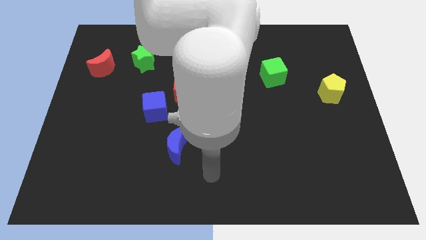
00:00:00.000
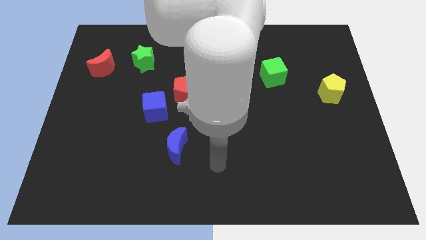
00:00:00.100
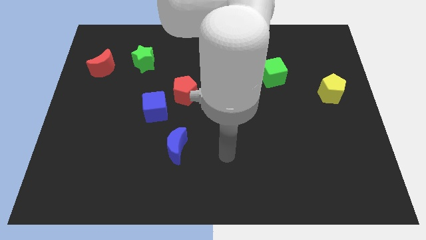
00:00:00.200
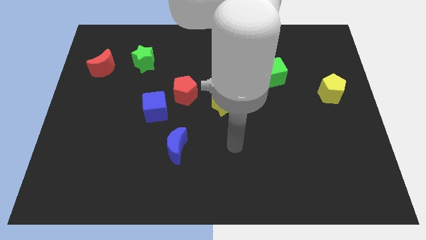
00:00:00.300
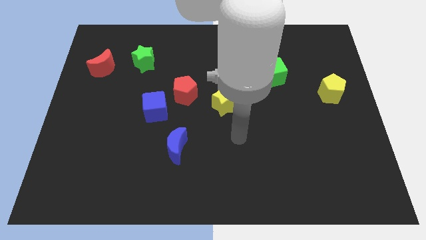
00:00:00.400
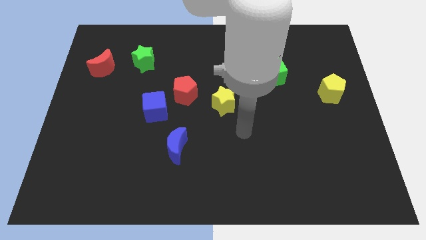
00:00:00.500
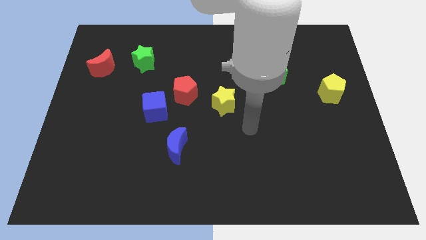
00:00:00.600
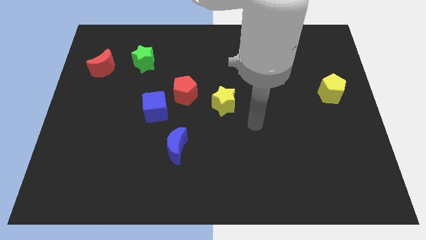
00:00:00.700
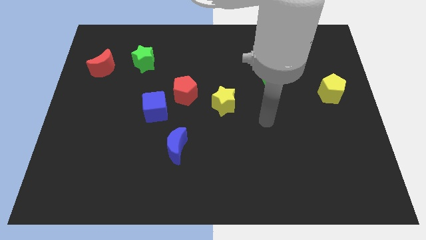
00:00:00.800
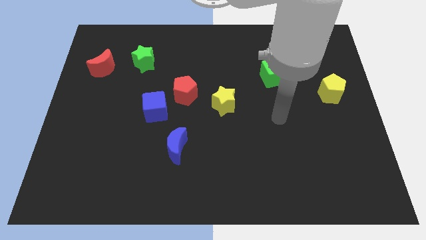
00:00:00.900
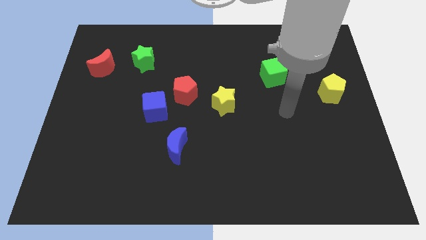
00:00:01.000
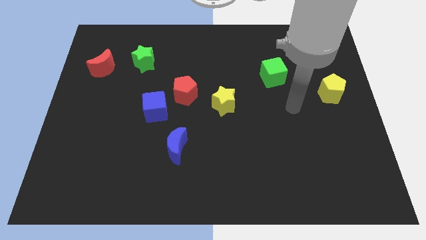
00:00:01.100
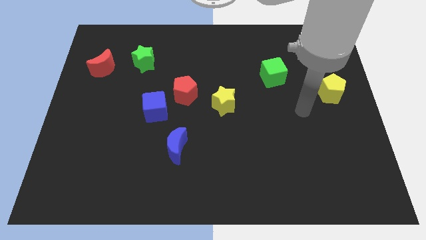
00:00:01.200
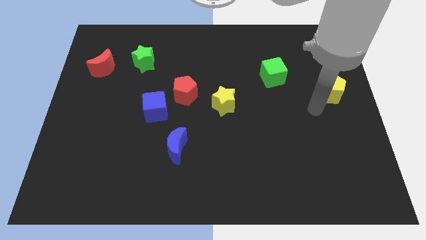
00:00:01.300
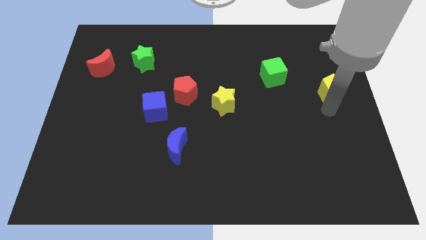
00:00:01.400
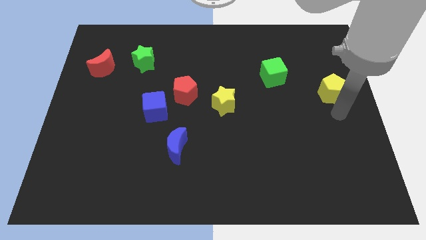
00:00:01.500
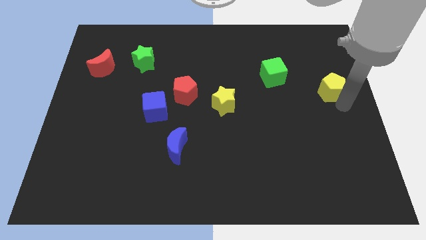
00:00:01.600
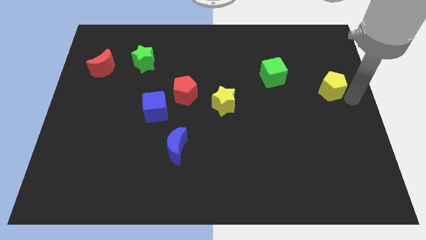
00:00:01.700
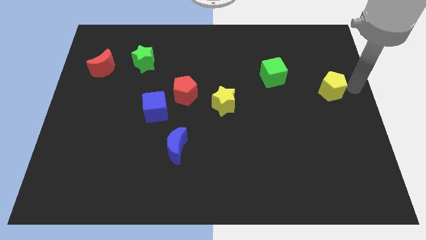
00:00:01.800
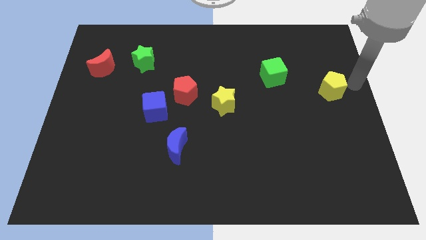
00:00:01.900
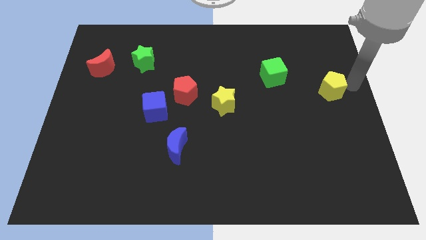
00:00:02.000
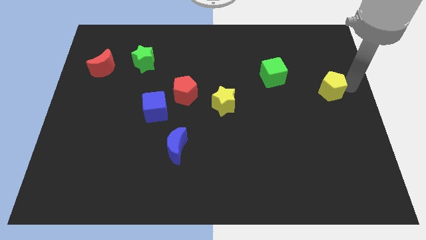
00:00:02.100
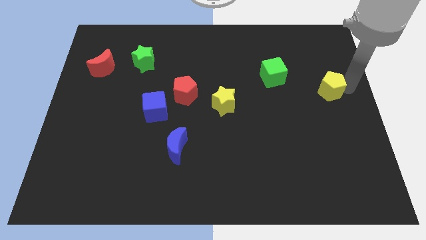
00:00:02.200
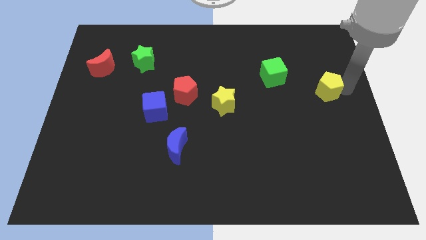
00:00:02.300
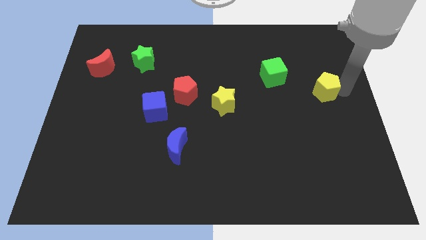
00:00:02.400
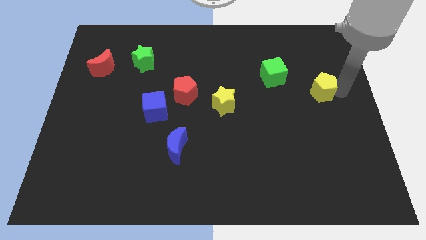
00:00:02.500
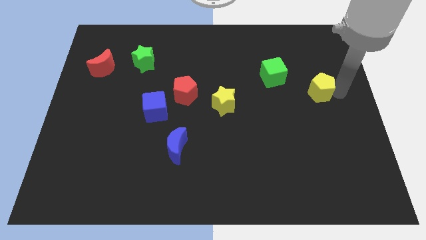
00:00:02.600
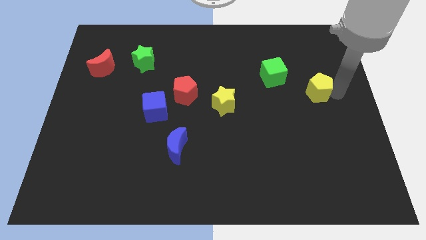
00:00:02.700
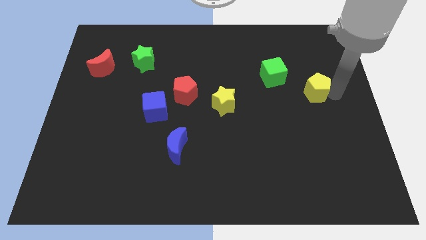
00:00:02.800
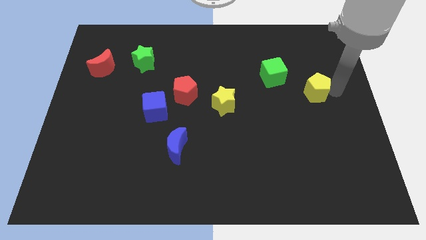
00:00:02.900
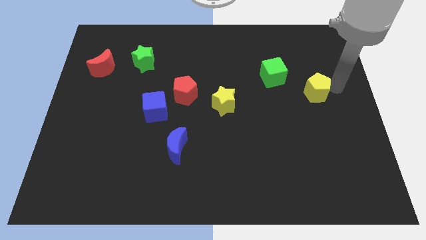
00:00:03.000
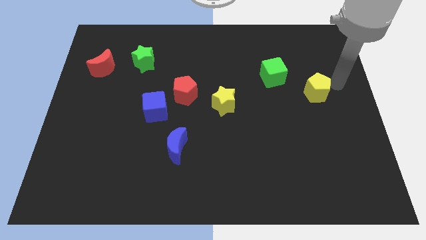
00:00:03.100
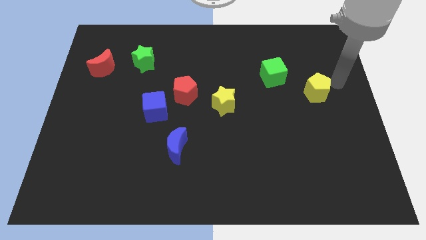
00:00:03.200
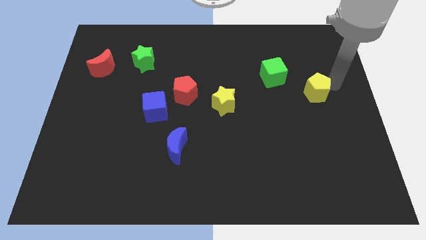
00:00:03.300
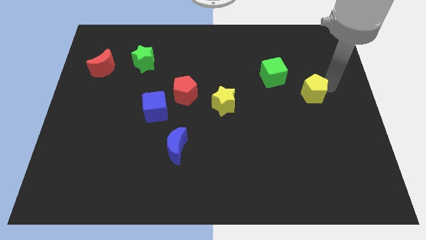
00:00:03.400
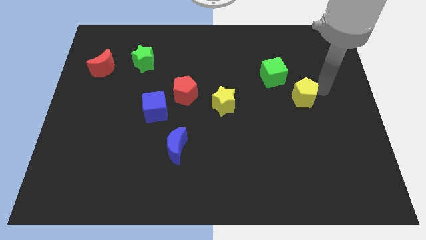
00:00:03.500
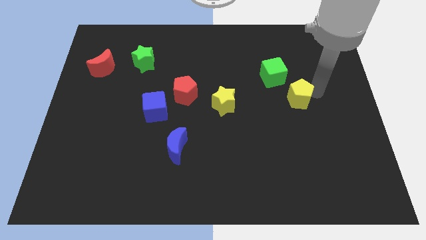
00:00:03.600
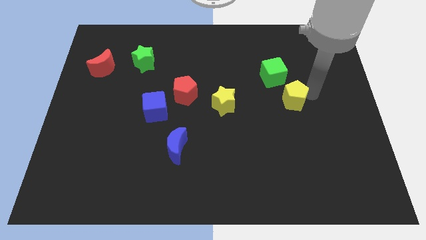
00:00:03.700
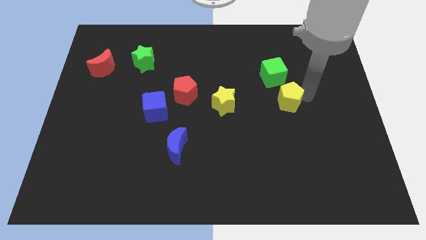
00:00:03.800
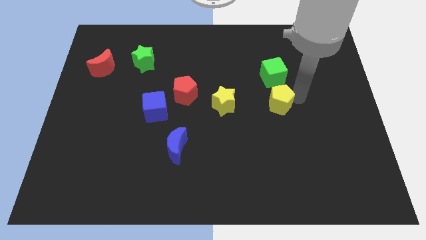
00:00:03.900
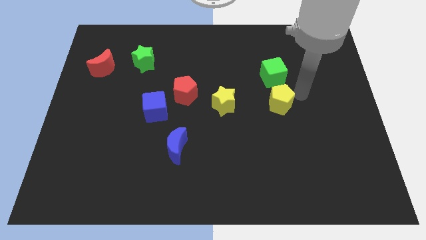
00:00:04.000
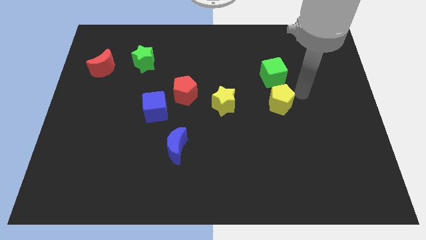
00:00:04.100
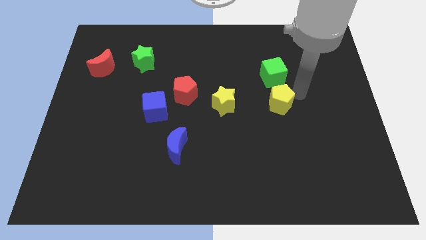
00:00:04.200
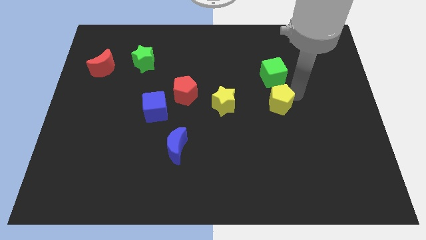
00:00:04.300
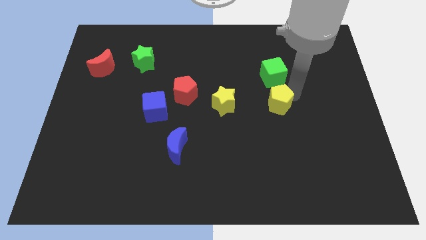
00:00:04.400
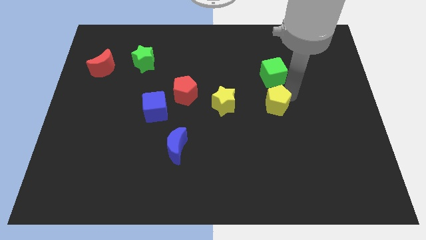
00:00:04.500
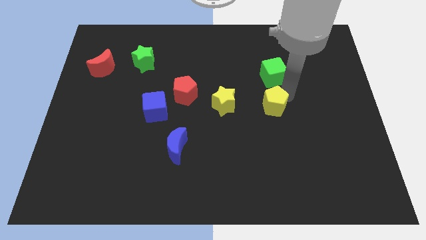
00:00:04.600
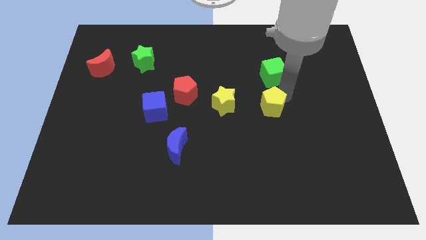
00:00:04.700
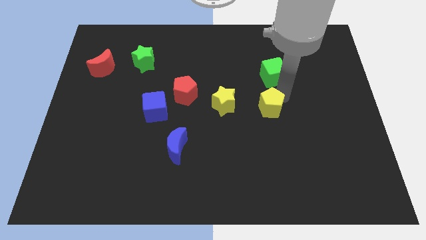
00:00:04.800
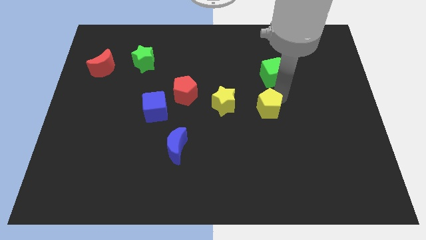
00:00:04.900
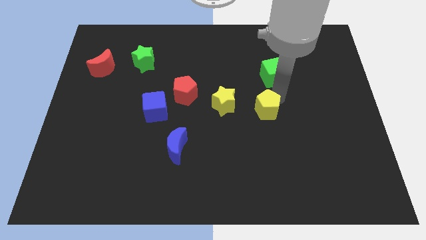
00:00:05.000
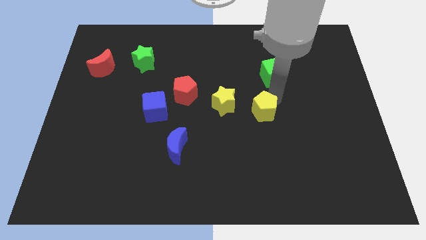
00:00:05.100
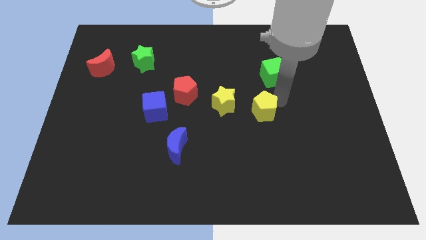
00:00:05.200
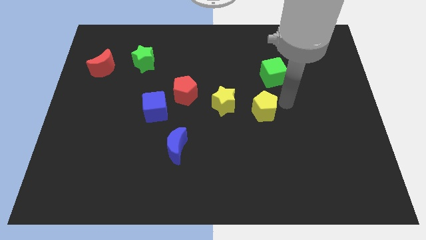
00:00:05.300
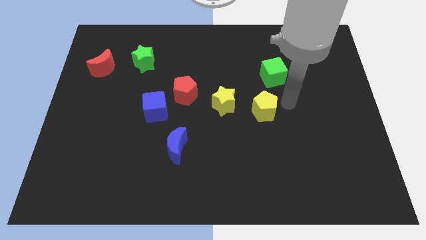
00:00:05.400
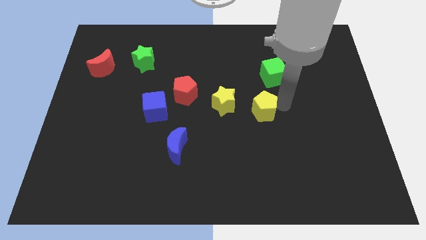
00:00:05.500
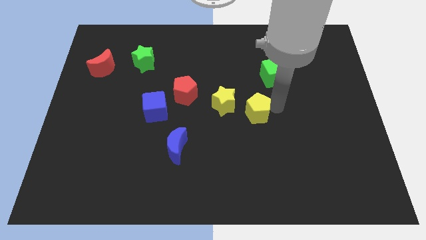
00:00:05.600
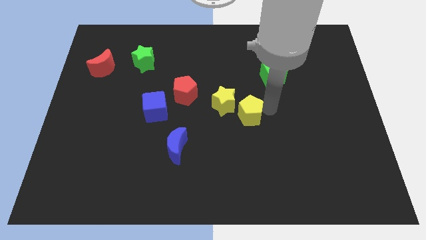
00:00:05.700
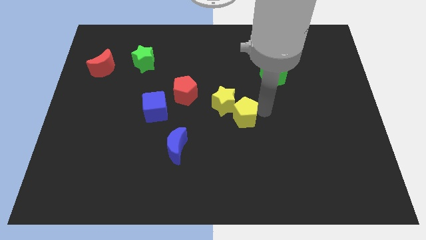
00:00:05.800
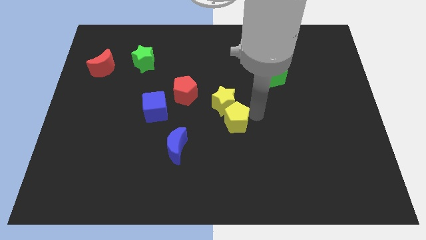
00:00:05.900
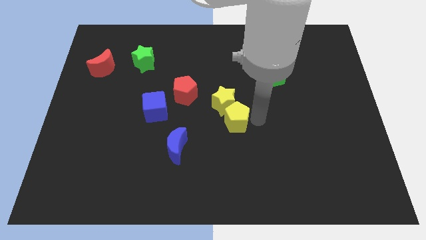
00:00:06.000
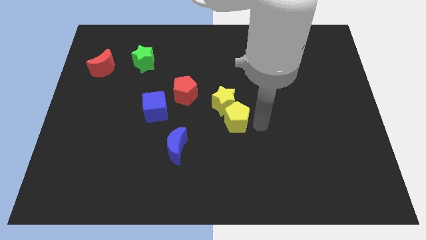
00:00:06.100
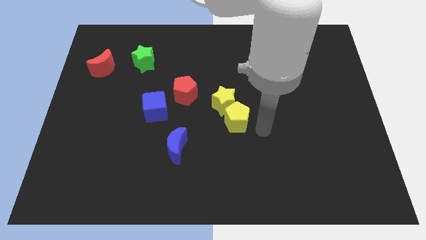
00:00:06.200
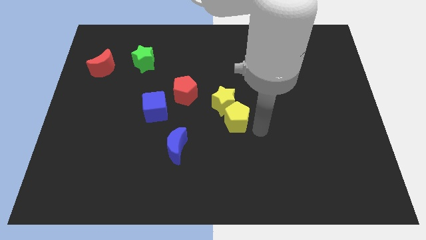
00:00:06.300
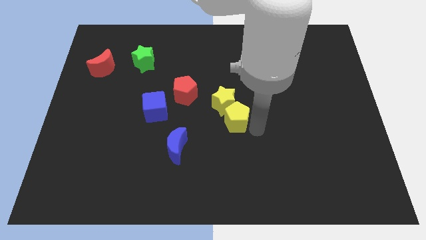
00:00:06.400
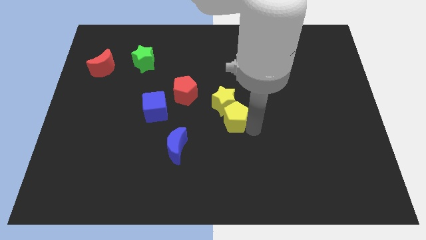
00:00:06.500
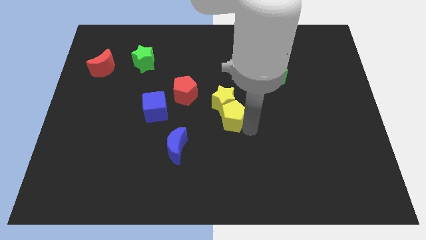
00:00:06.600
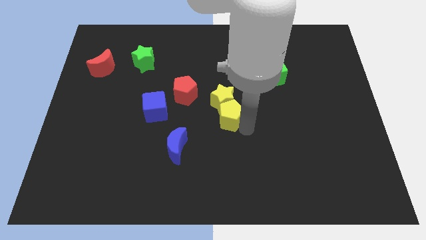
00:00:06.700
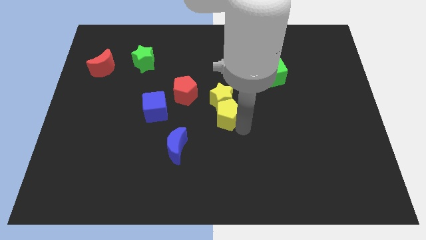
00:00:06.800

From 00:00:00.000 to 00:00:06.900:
slide the yellow pentagon to the bottom right side of the red pentagon
